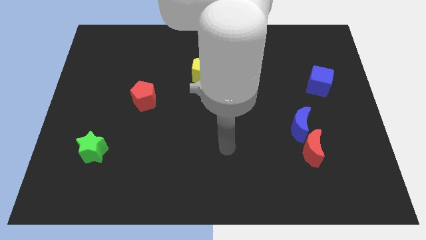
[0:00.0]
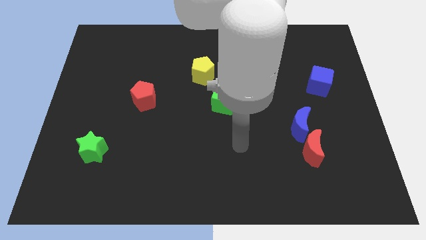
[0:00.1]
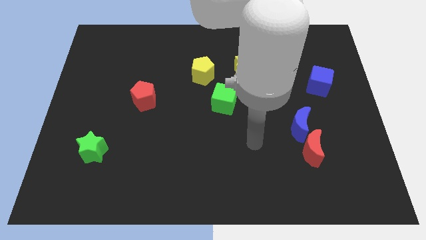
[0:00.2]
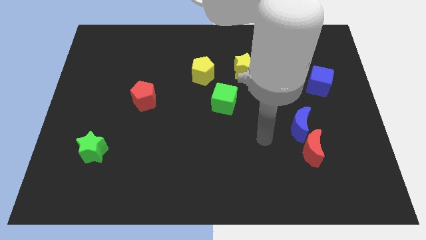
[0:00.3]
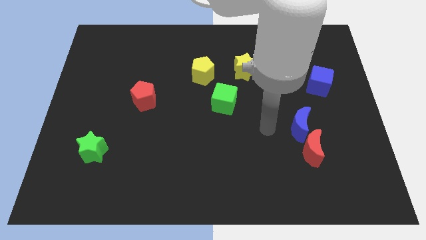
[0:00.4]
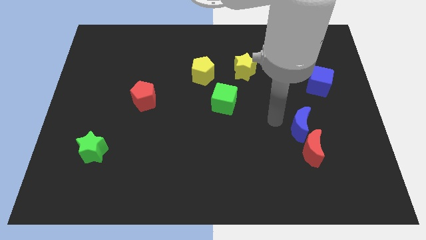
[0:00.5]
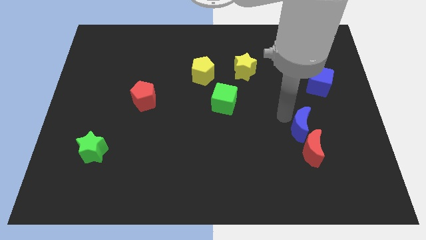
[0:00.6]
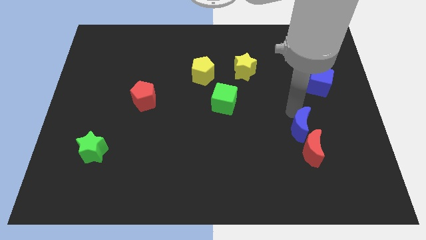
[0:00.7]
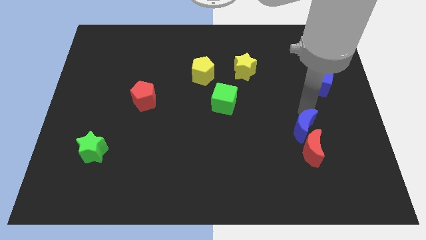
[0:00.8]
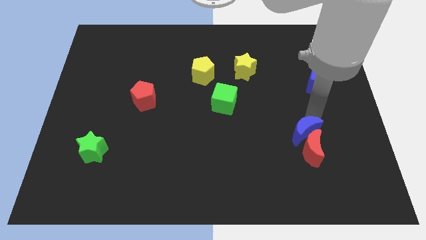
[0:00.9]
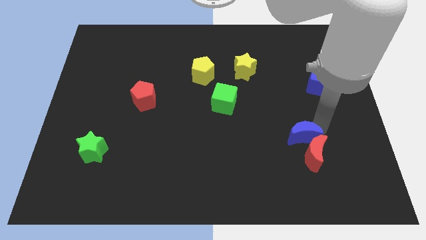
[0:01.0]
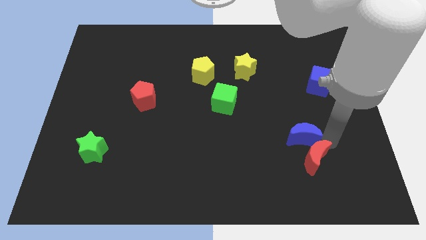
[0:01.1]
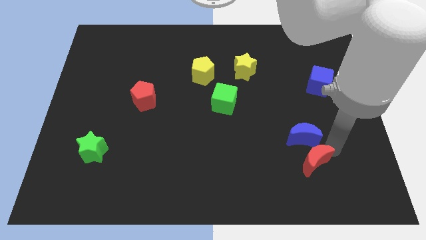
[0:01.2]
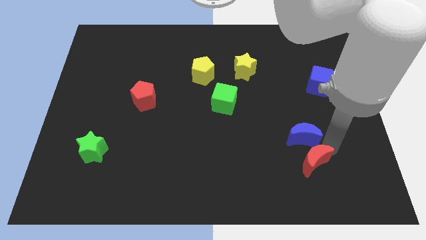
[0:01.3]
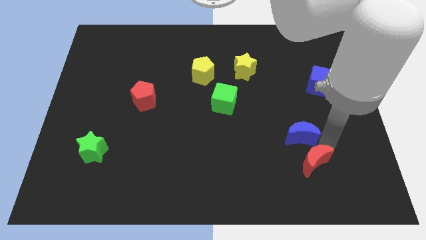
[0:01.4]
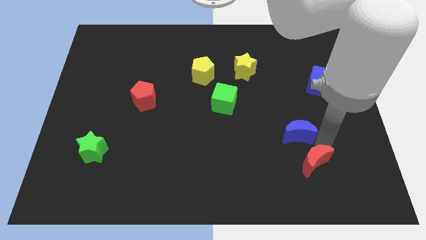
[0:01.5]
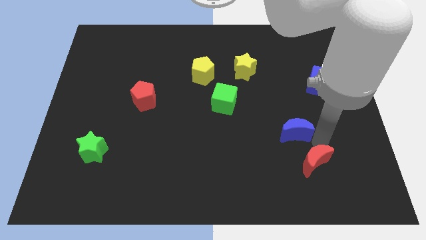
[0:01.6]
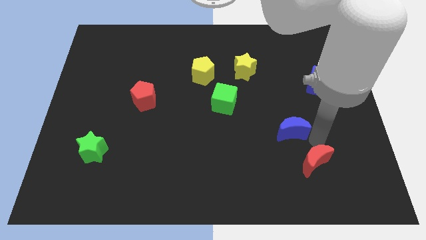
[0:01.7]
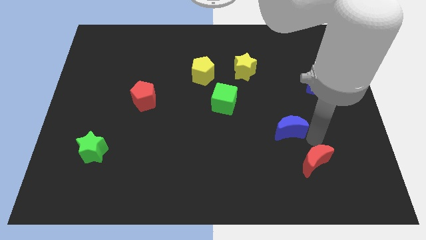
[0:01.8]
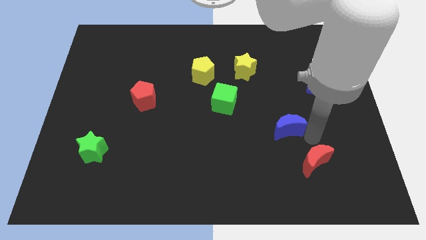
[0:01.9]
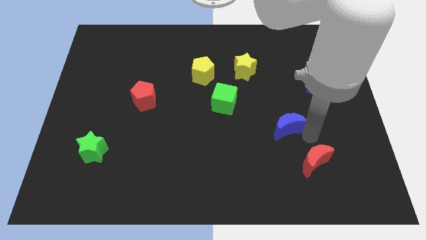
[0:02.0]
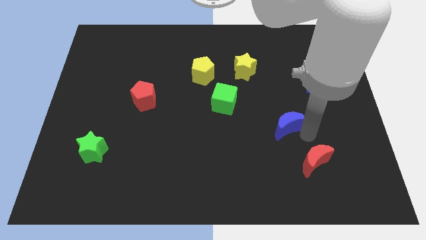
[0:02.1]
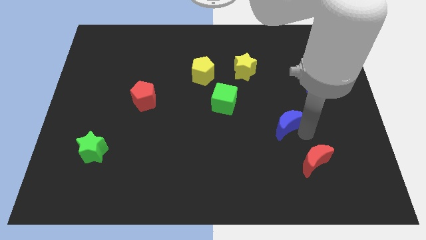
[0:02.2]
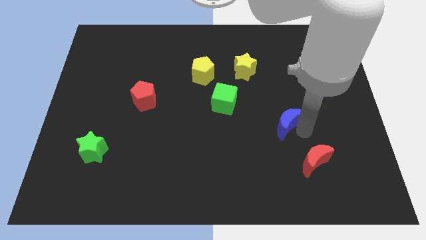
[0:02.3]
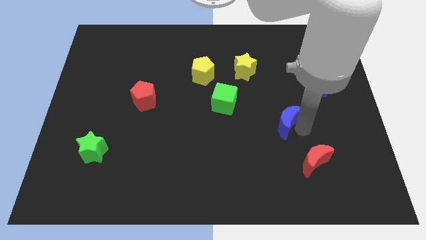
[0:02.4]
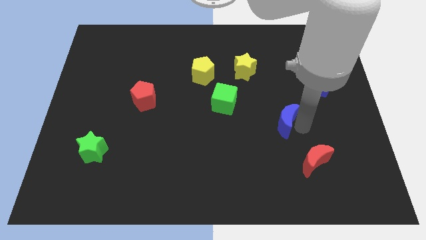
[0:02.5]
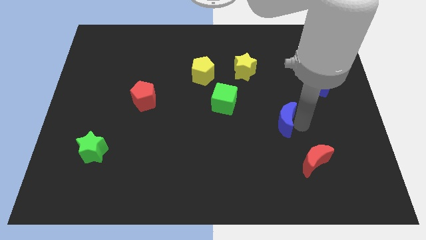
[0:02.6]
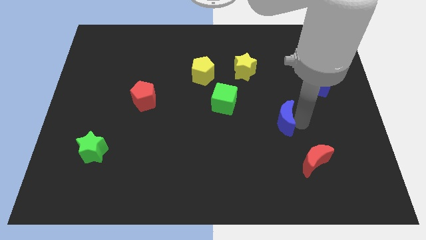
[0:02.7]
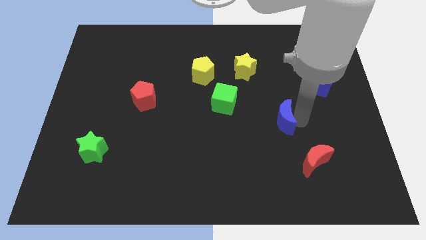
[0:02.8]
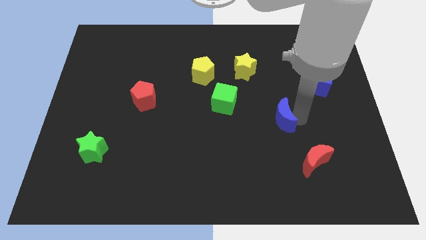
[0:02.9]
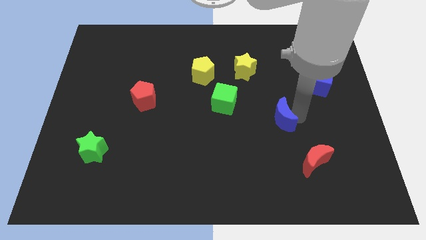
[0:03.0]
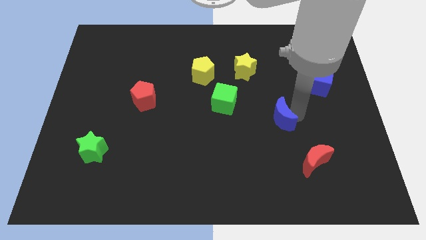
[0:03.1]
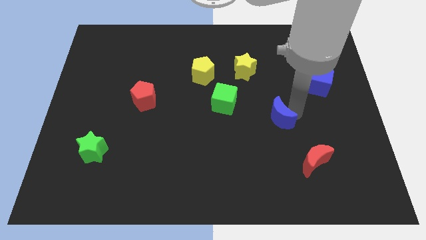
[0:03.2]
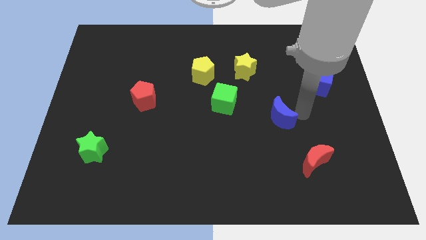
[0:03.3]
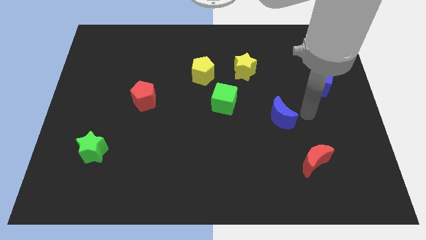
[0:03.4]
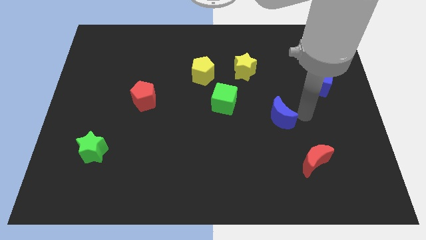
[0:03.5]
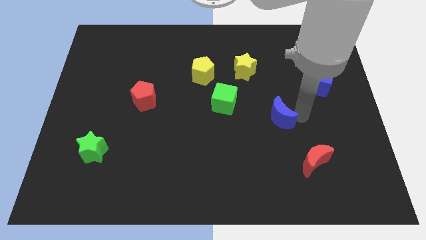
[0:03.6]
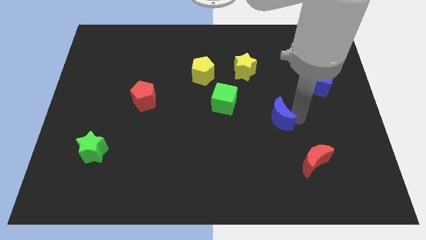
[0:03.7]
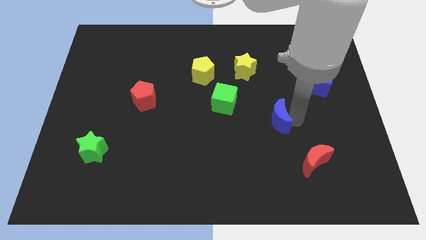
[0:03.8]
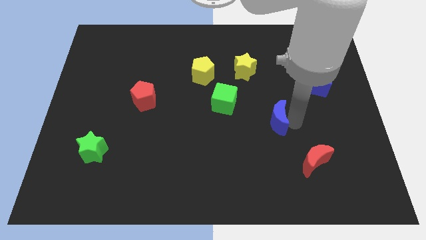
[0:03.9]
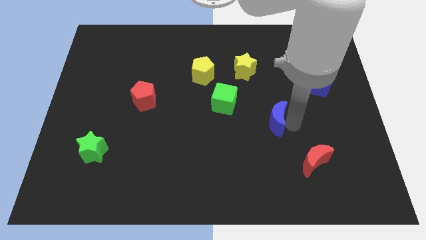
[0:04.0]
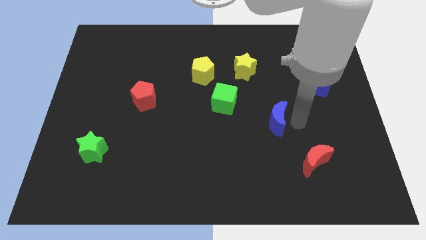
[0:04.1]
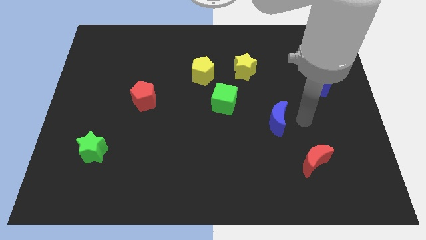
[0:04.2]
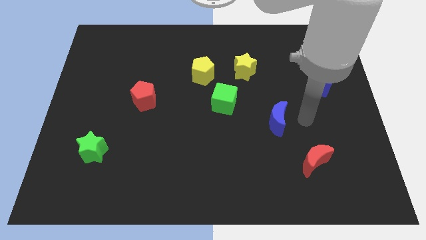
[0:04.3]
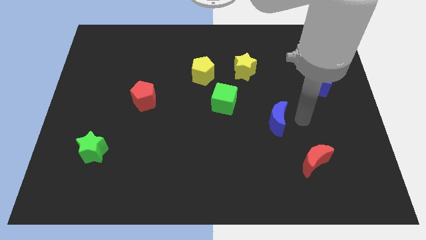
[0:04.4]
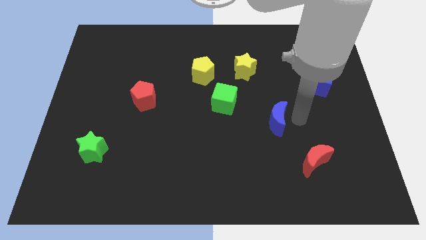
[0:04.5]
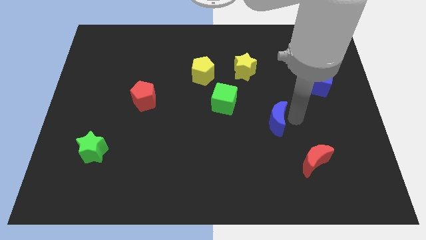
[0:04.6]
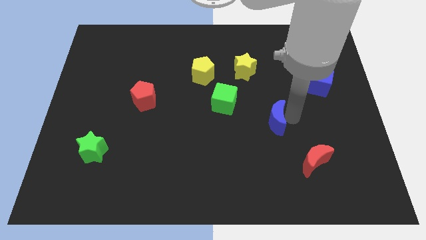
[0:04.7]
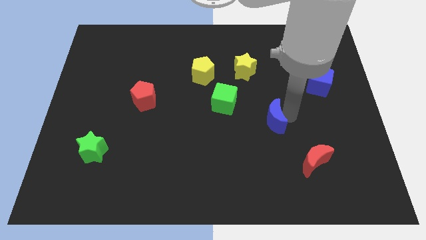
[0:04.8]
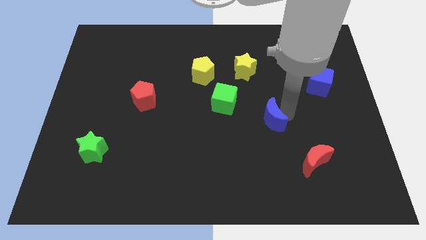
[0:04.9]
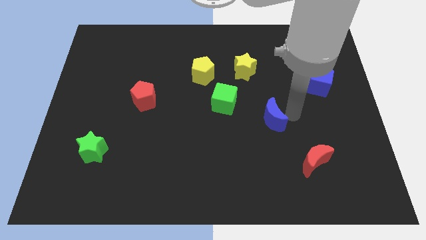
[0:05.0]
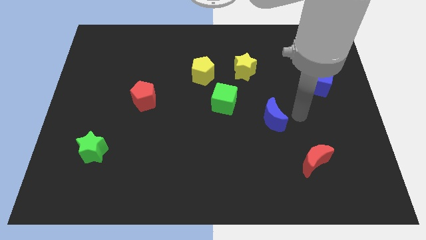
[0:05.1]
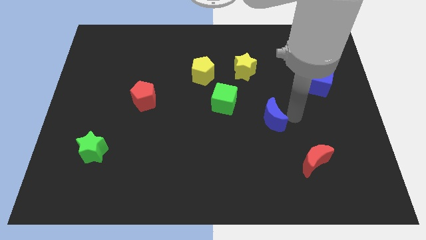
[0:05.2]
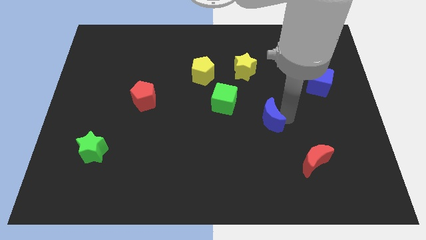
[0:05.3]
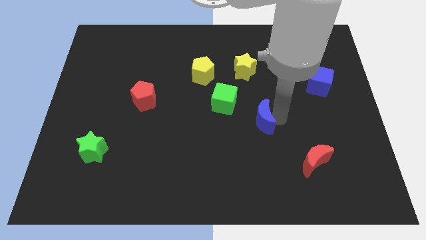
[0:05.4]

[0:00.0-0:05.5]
slide the blue moon to the left a little

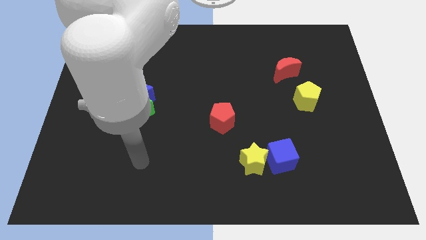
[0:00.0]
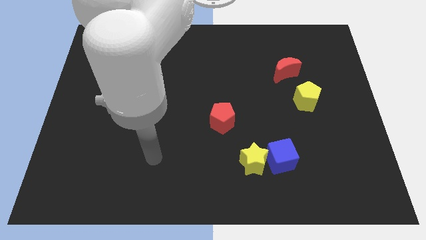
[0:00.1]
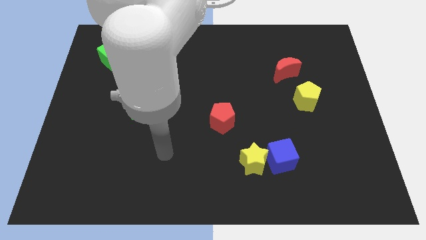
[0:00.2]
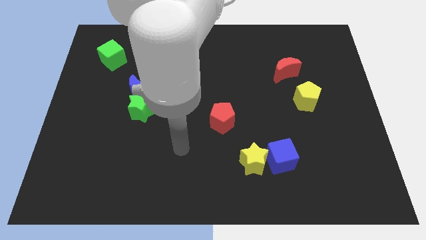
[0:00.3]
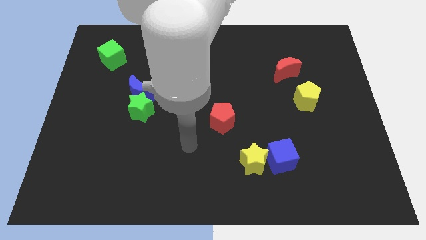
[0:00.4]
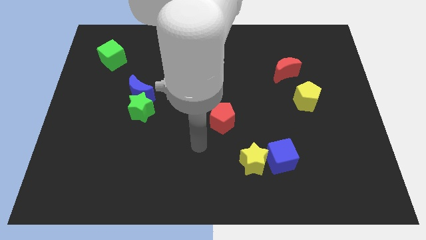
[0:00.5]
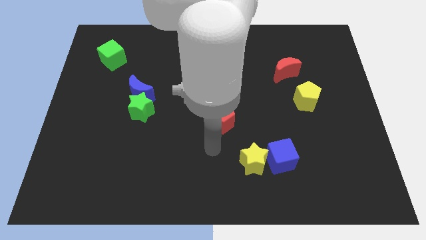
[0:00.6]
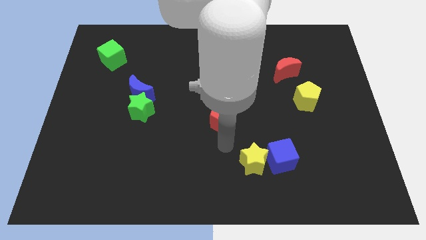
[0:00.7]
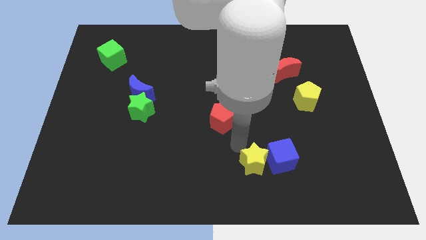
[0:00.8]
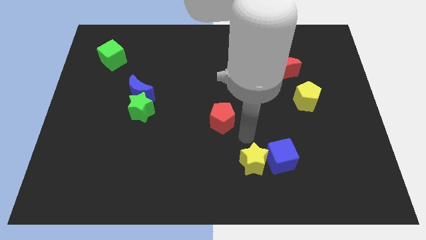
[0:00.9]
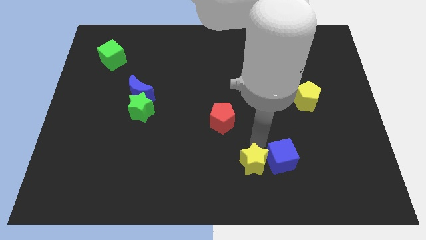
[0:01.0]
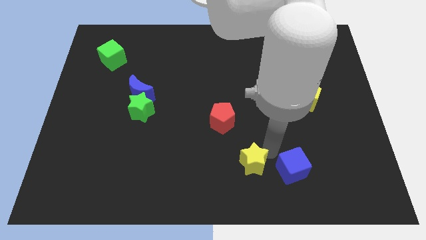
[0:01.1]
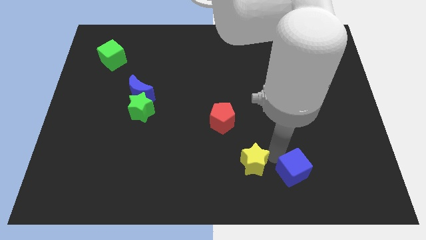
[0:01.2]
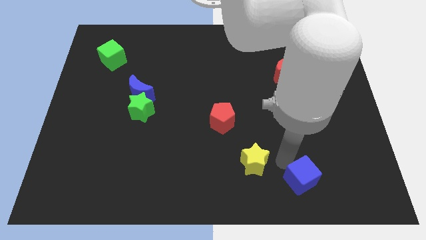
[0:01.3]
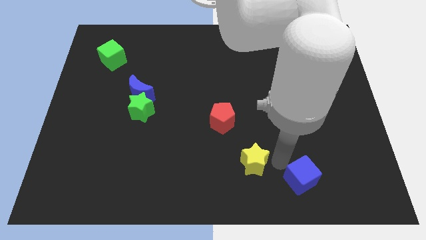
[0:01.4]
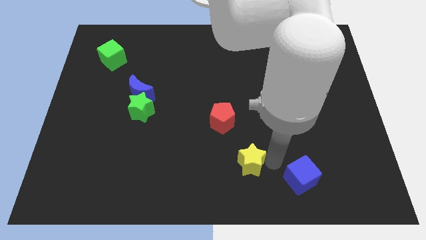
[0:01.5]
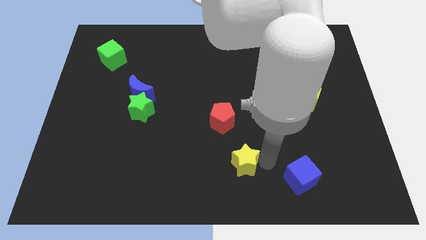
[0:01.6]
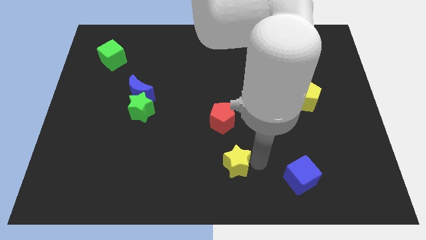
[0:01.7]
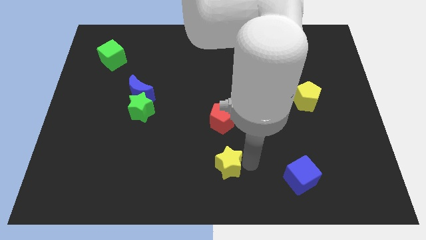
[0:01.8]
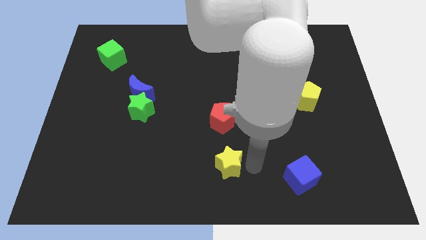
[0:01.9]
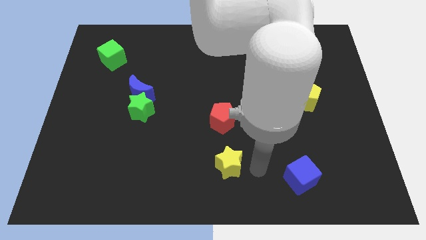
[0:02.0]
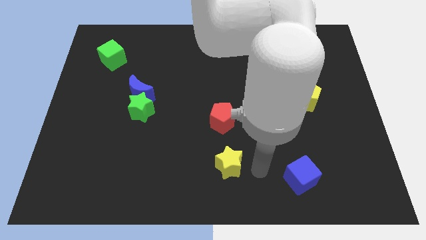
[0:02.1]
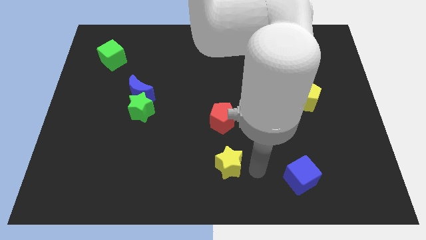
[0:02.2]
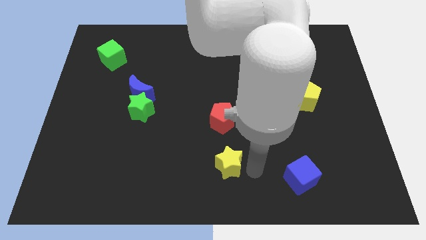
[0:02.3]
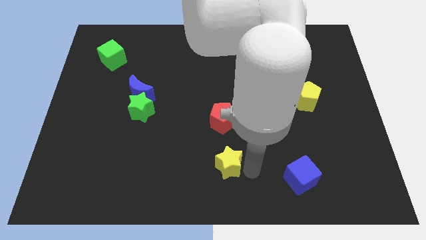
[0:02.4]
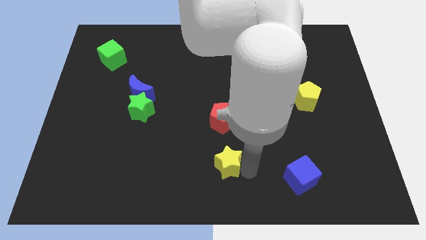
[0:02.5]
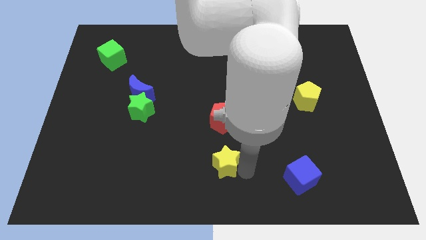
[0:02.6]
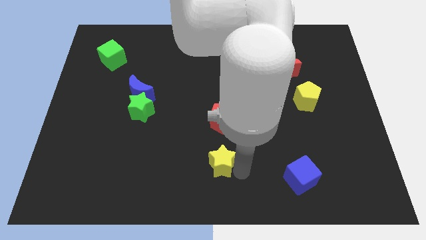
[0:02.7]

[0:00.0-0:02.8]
push the yellow star somewhat to the left
